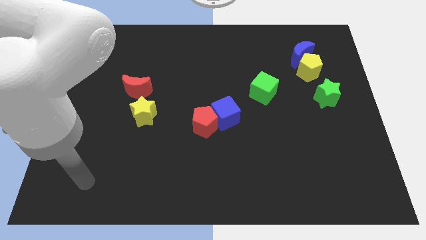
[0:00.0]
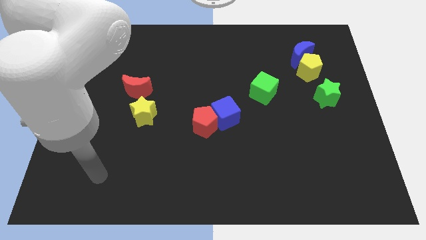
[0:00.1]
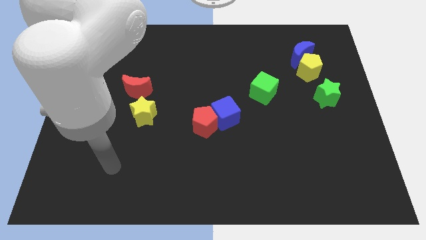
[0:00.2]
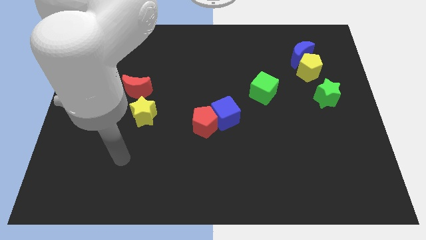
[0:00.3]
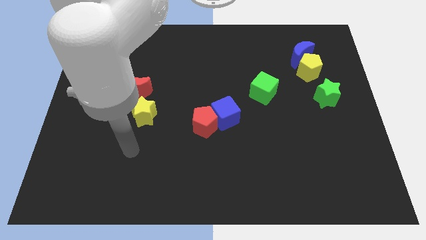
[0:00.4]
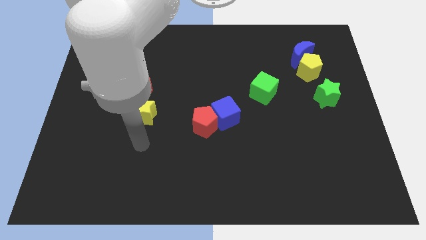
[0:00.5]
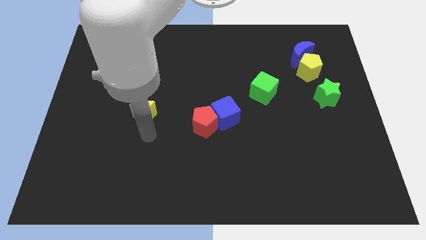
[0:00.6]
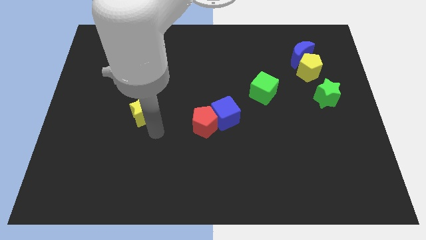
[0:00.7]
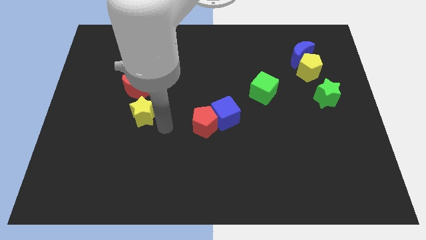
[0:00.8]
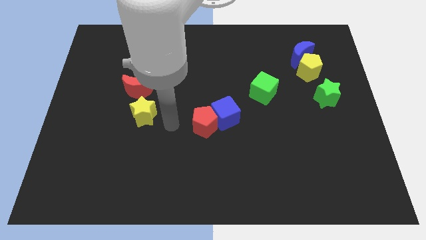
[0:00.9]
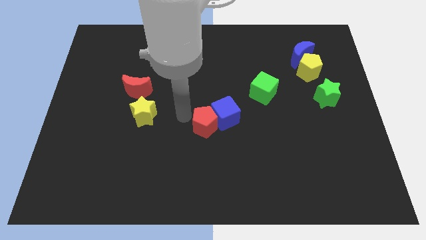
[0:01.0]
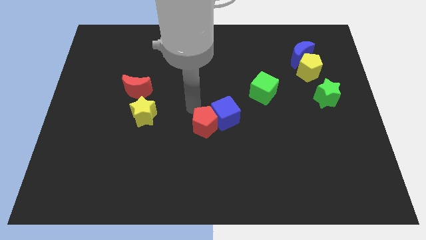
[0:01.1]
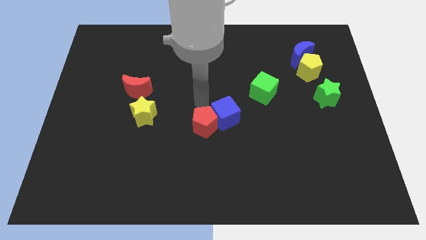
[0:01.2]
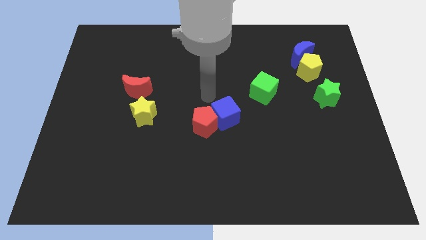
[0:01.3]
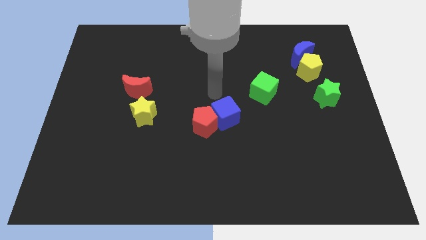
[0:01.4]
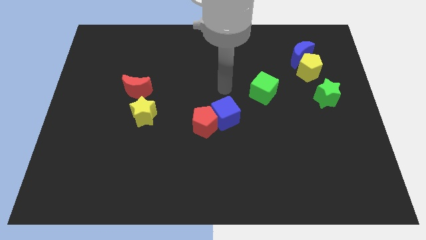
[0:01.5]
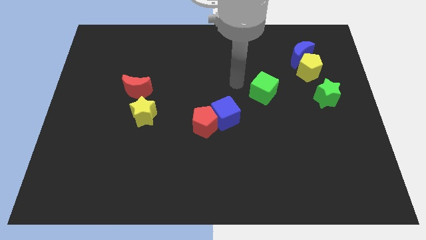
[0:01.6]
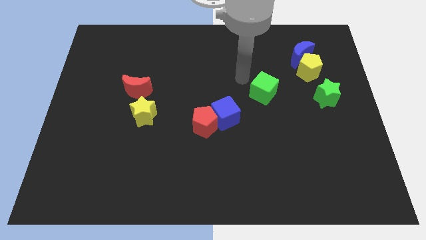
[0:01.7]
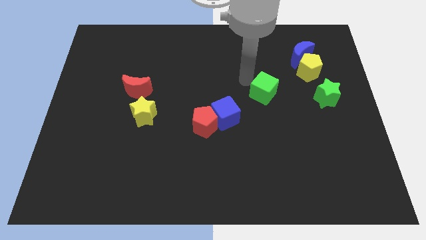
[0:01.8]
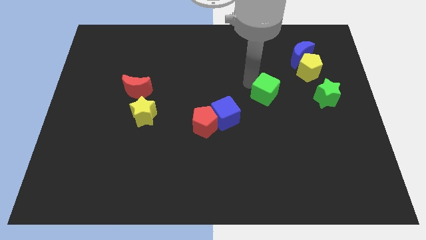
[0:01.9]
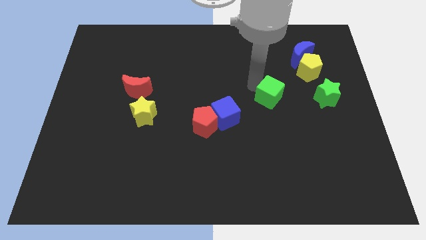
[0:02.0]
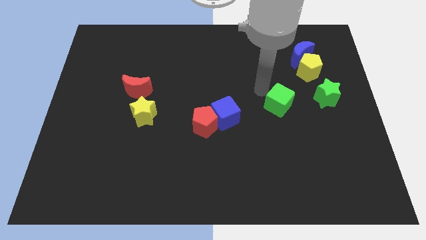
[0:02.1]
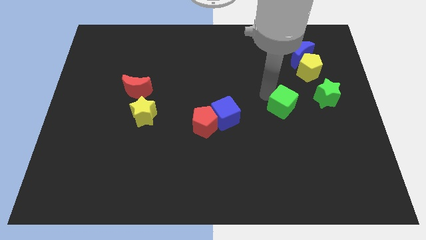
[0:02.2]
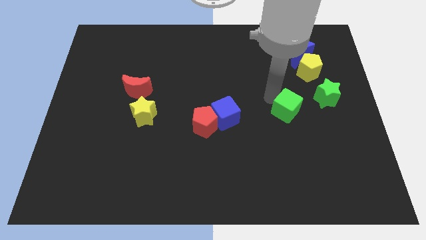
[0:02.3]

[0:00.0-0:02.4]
slightly push the green cube diagonally downwards and to the right

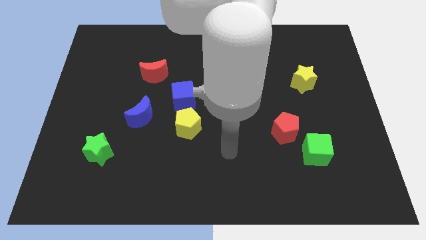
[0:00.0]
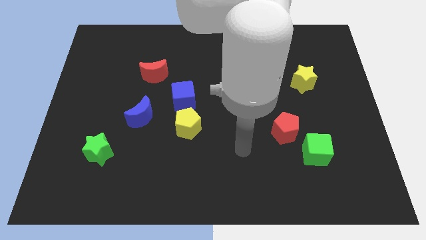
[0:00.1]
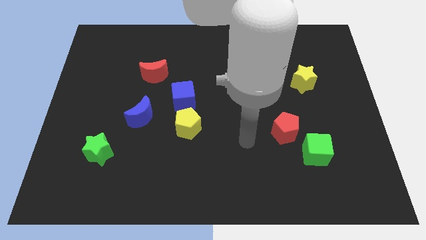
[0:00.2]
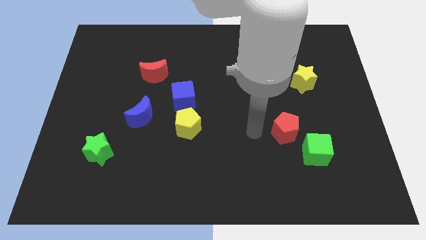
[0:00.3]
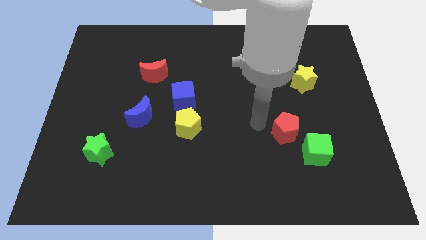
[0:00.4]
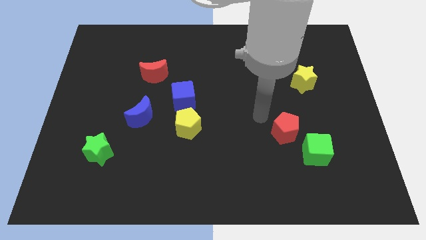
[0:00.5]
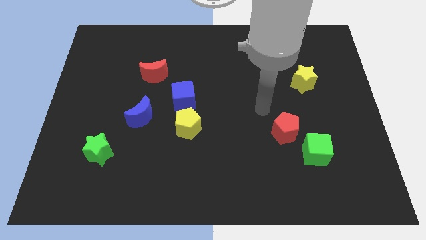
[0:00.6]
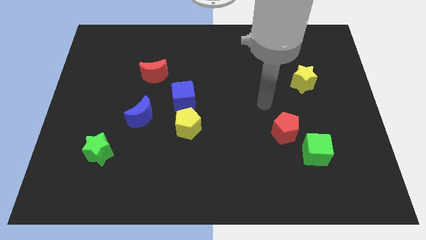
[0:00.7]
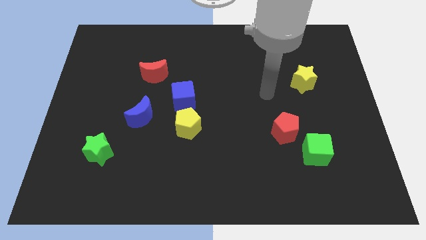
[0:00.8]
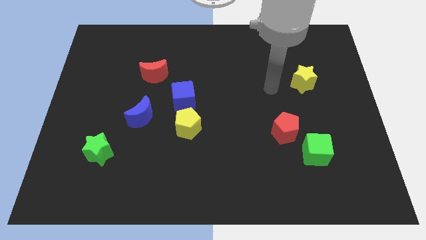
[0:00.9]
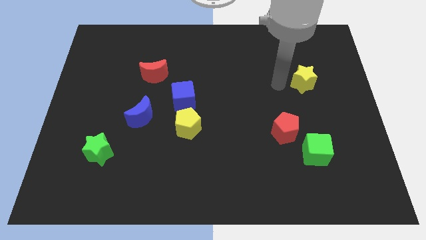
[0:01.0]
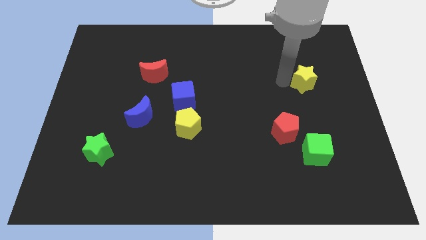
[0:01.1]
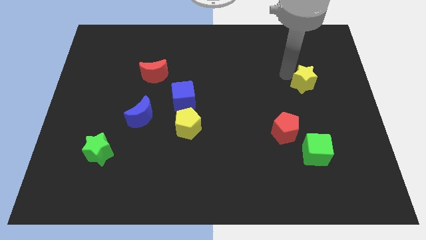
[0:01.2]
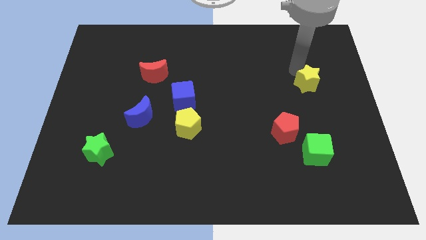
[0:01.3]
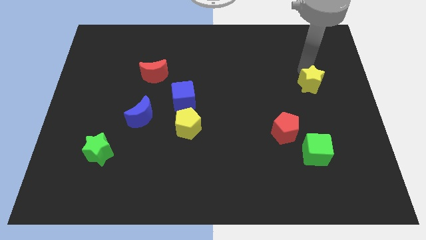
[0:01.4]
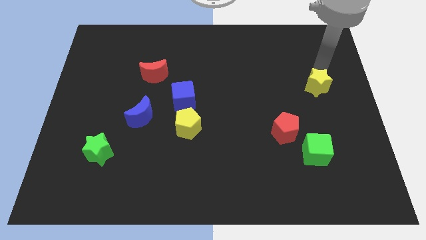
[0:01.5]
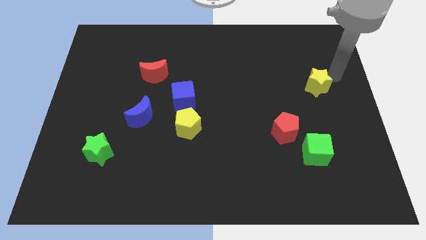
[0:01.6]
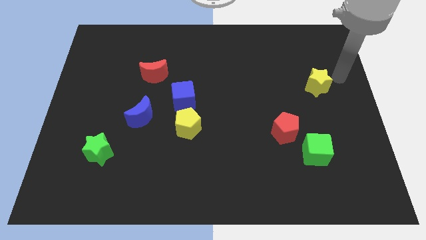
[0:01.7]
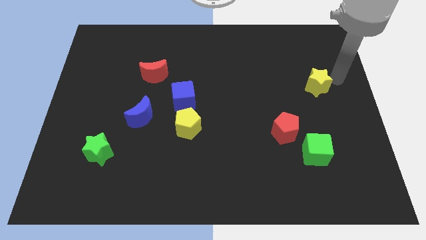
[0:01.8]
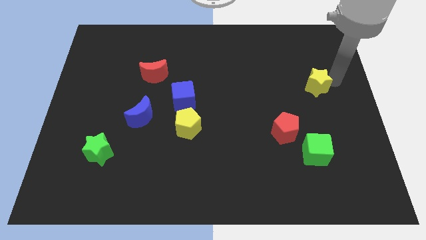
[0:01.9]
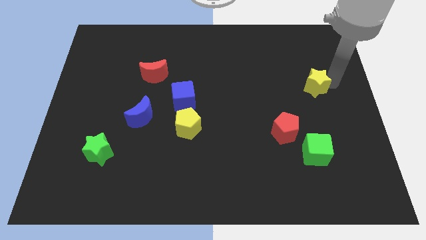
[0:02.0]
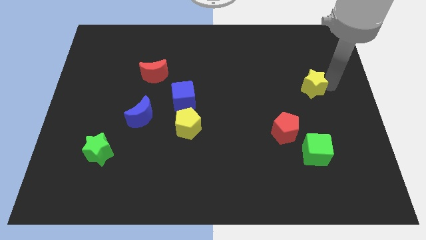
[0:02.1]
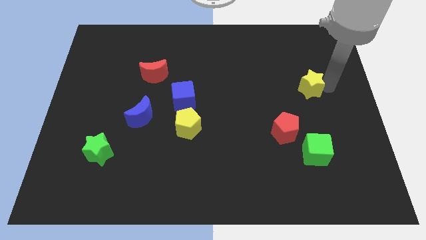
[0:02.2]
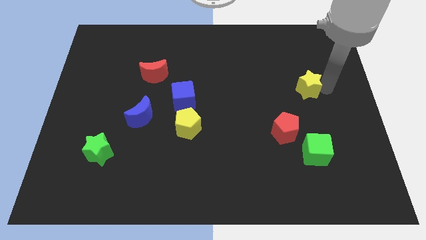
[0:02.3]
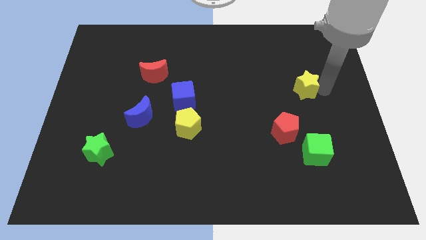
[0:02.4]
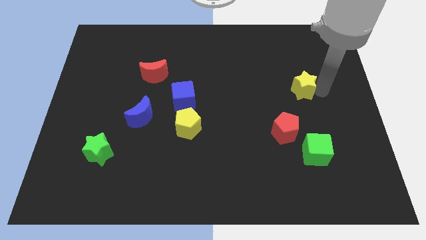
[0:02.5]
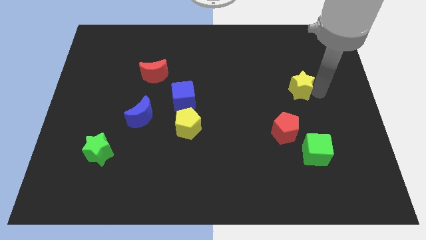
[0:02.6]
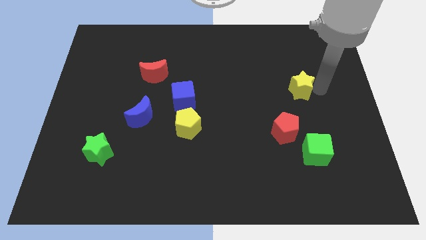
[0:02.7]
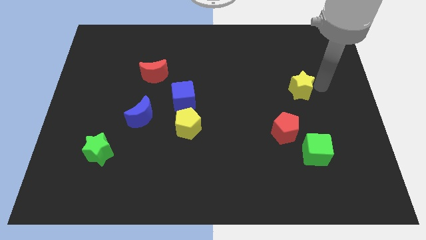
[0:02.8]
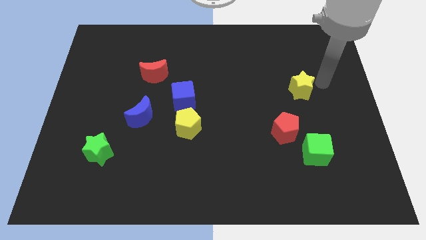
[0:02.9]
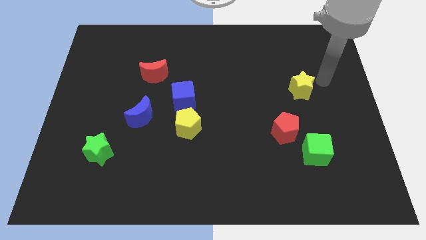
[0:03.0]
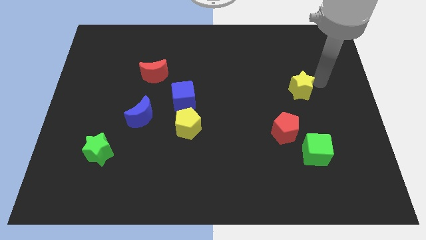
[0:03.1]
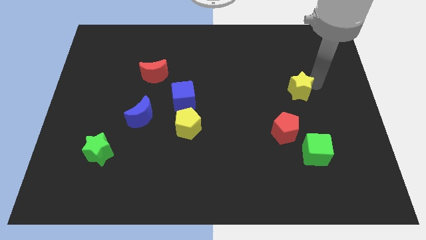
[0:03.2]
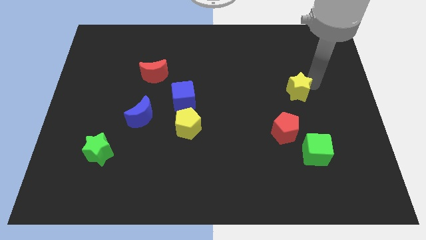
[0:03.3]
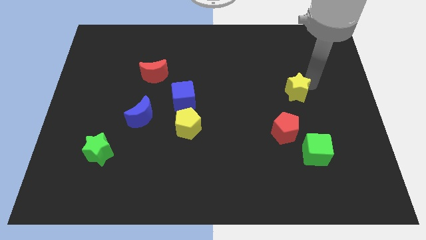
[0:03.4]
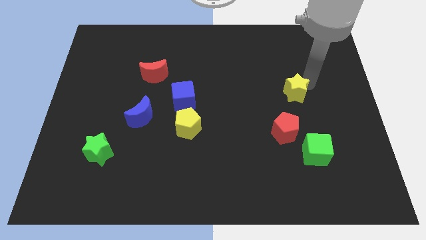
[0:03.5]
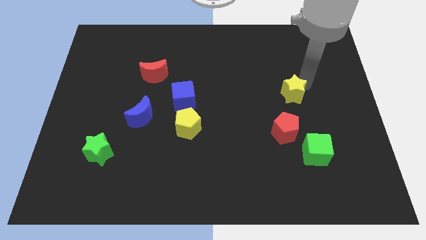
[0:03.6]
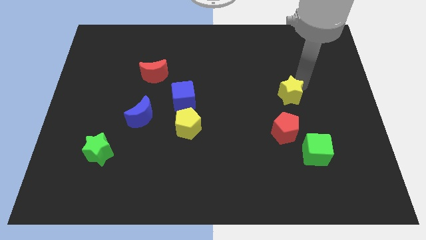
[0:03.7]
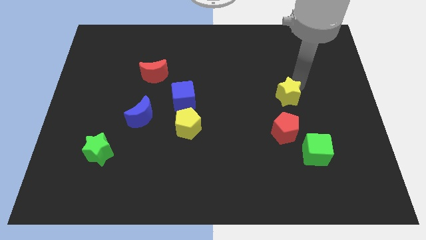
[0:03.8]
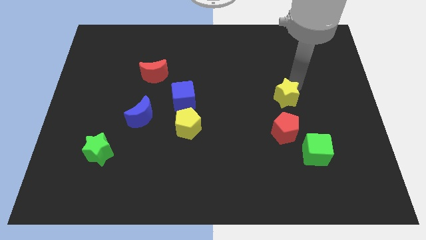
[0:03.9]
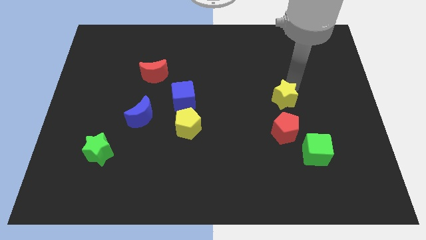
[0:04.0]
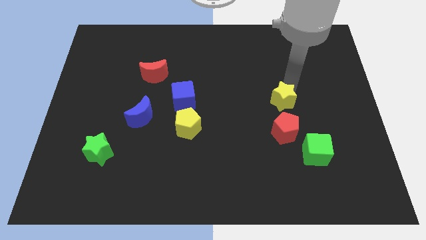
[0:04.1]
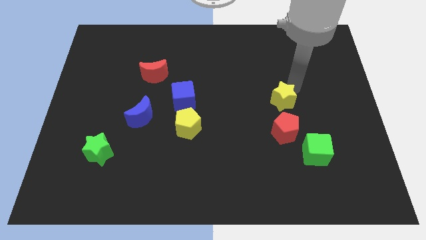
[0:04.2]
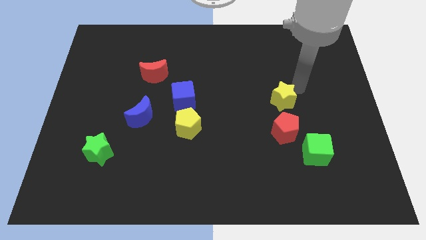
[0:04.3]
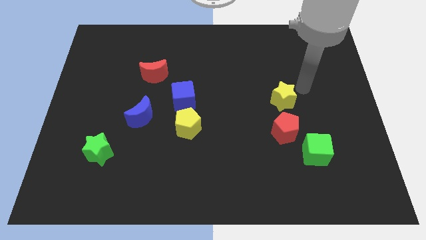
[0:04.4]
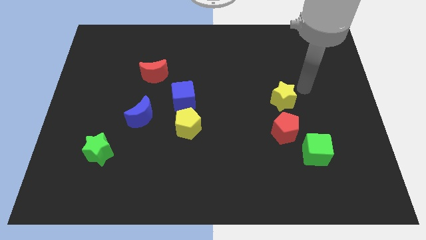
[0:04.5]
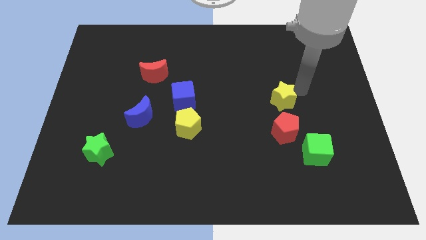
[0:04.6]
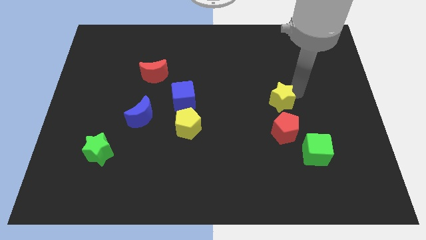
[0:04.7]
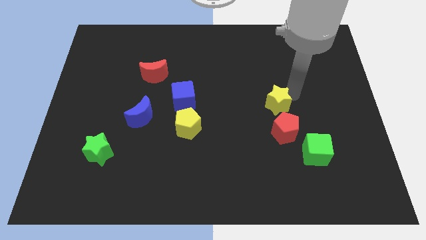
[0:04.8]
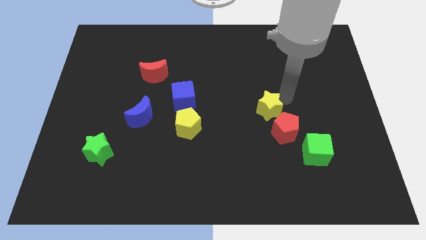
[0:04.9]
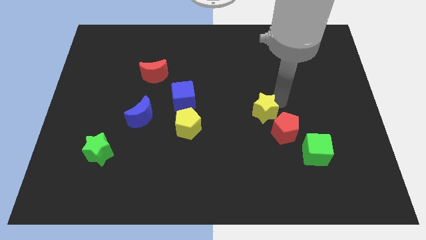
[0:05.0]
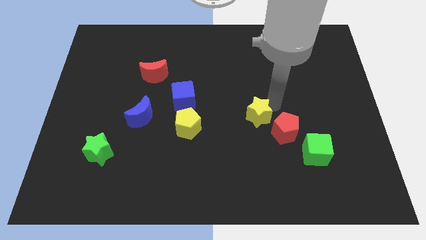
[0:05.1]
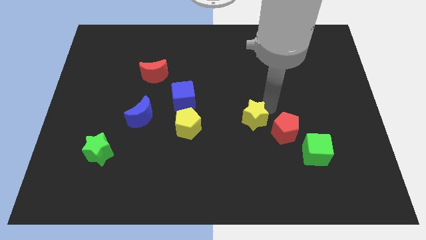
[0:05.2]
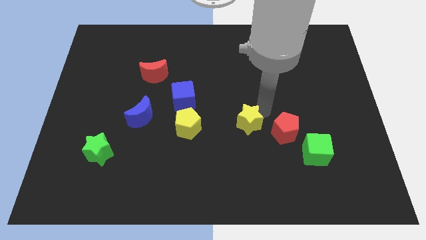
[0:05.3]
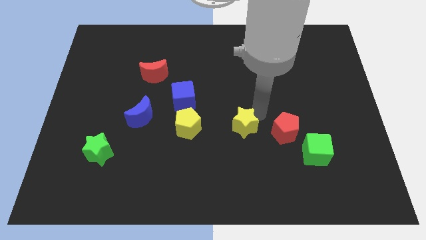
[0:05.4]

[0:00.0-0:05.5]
push the yellow star downwards and left diagonally
